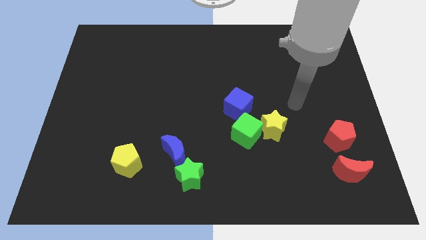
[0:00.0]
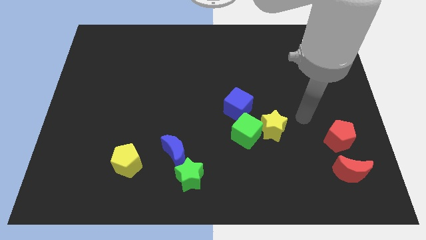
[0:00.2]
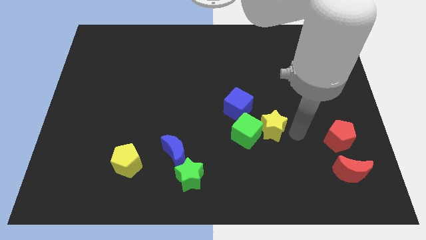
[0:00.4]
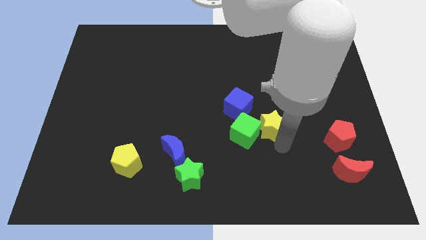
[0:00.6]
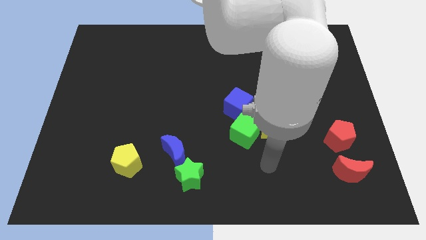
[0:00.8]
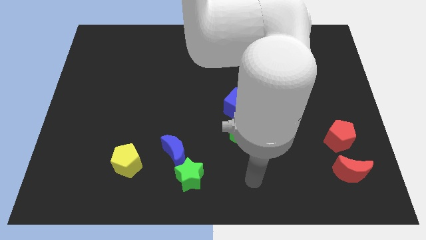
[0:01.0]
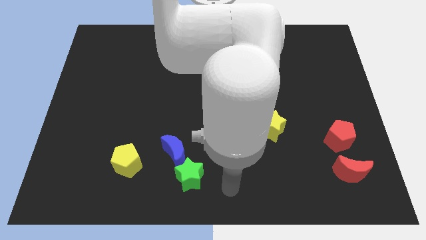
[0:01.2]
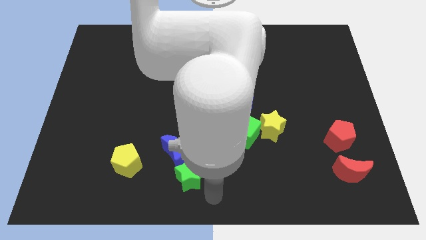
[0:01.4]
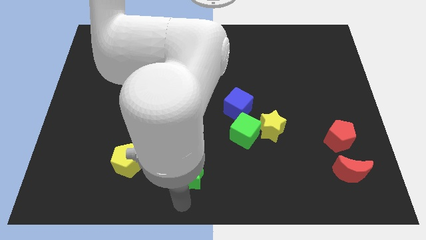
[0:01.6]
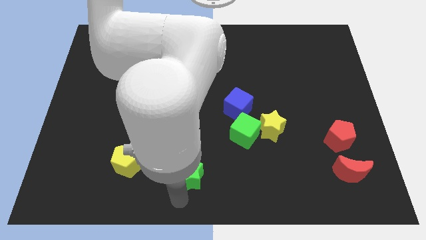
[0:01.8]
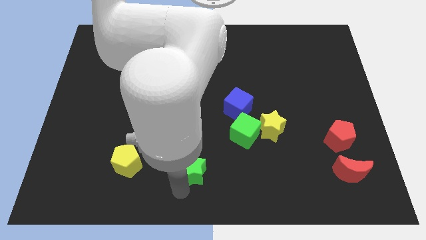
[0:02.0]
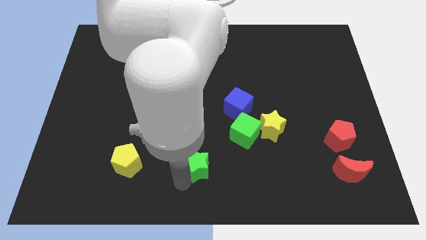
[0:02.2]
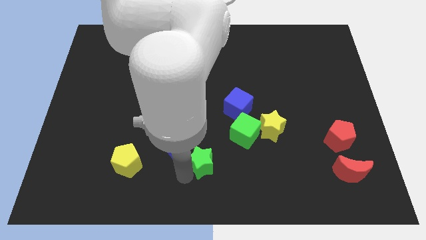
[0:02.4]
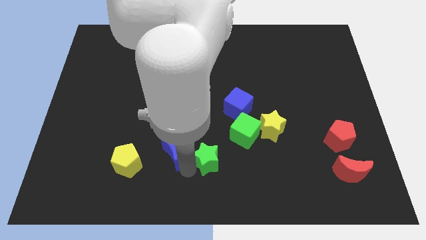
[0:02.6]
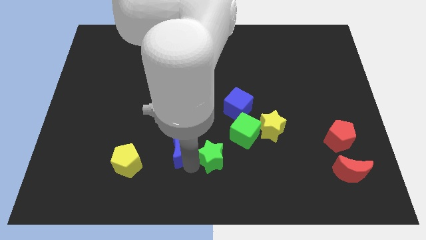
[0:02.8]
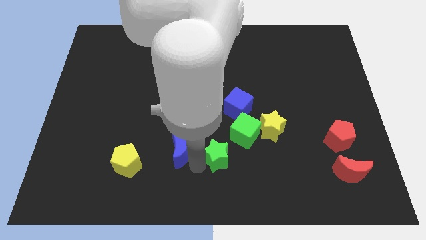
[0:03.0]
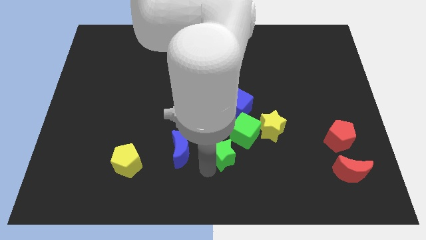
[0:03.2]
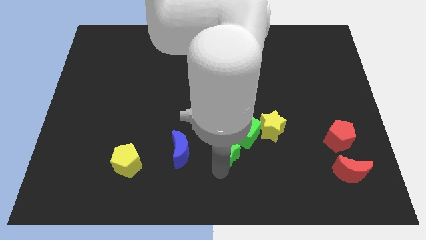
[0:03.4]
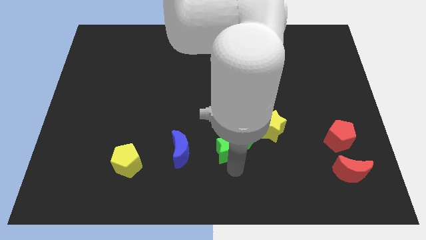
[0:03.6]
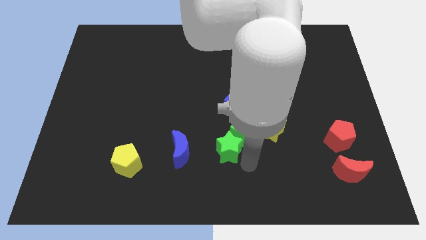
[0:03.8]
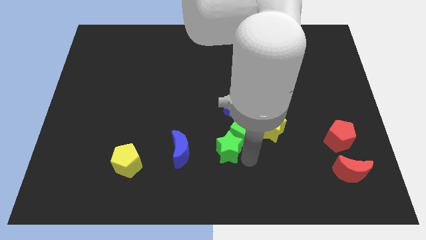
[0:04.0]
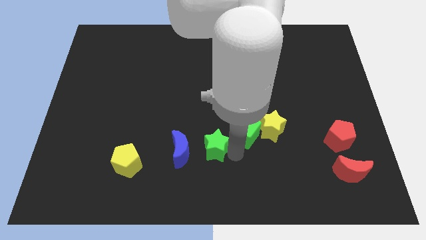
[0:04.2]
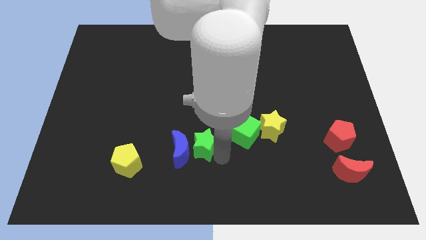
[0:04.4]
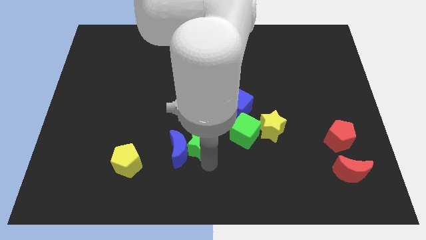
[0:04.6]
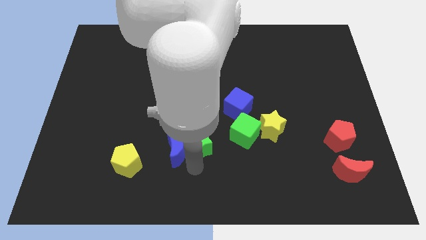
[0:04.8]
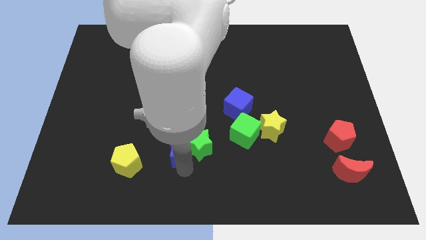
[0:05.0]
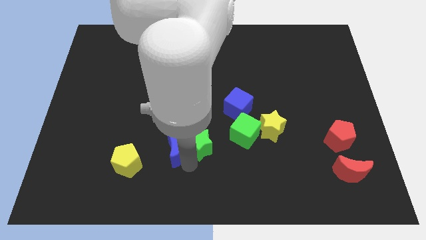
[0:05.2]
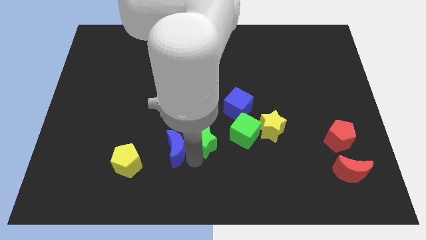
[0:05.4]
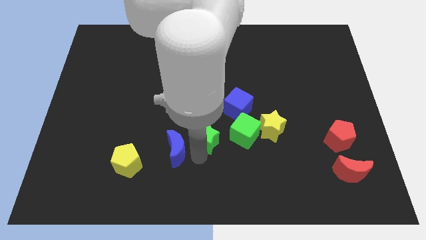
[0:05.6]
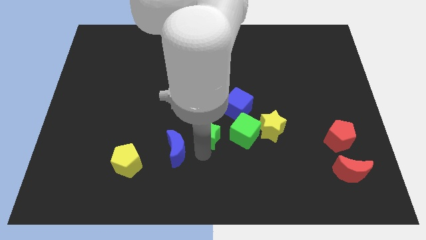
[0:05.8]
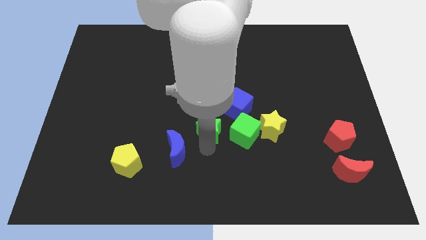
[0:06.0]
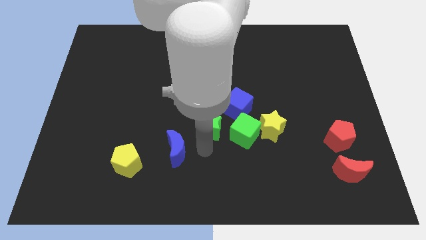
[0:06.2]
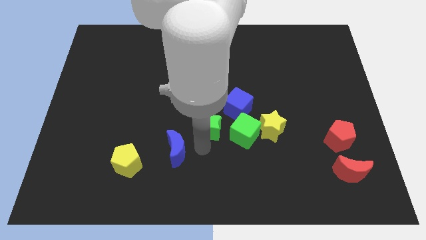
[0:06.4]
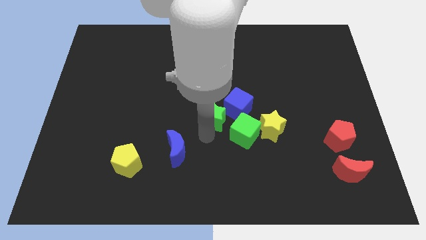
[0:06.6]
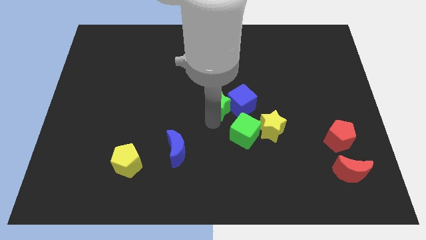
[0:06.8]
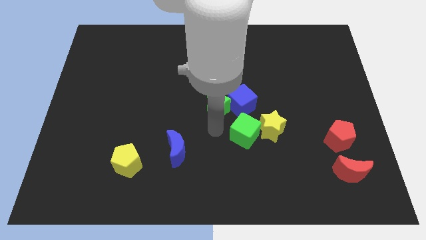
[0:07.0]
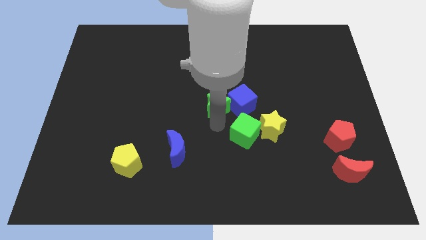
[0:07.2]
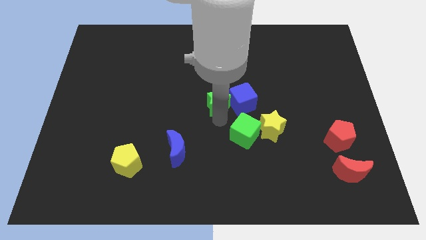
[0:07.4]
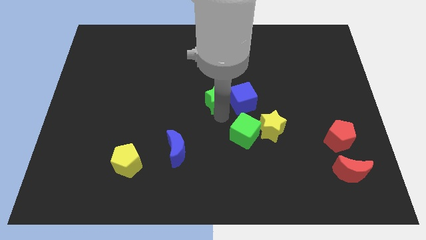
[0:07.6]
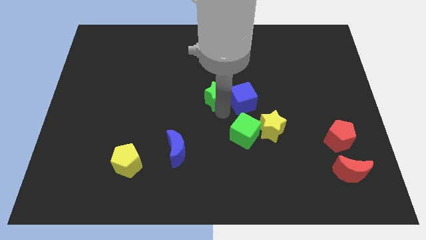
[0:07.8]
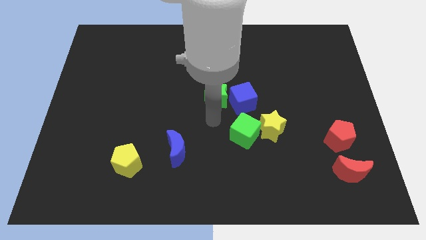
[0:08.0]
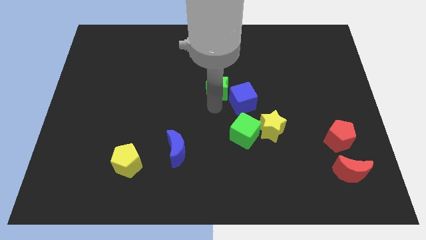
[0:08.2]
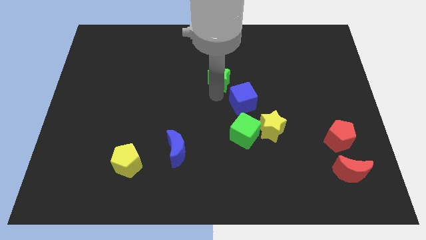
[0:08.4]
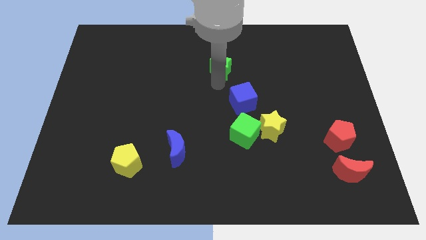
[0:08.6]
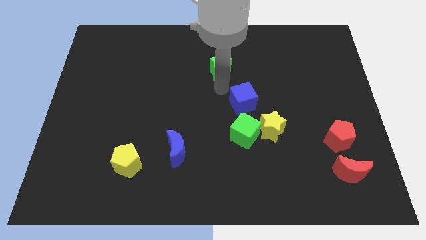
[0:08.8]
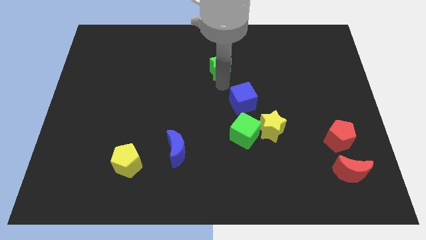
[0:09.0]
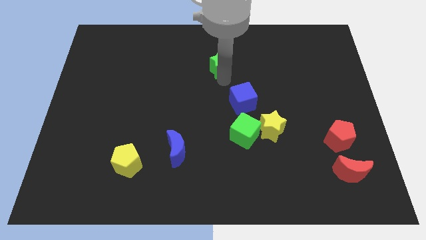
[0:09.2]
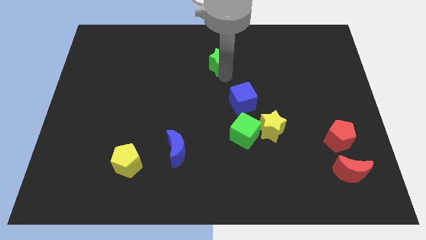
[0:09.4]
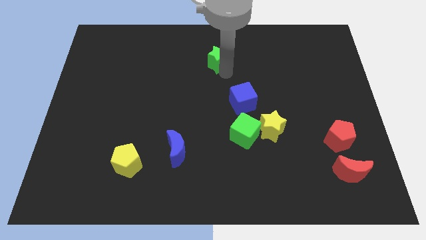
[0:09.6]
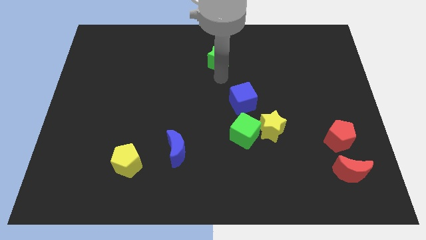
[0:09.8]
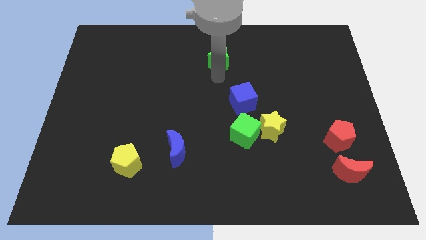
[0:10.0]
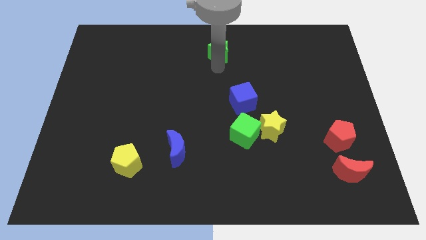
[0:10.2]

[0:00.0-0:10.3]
push the green star to the towards your base

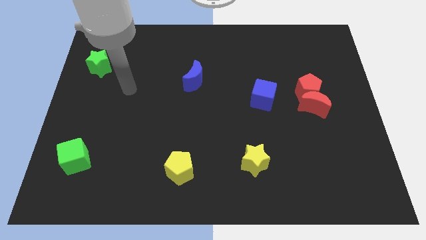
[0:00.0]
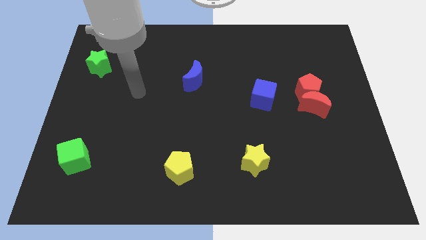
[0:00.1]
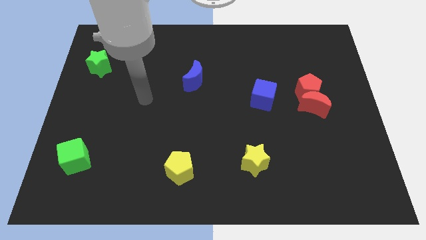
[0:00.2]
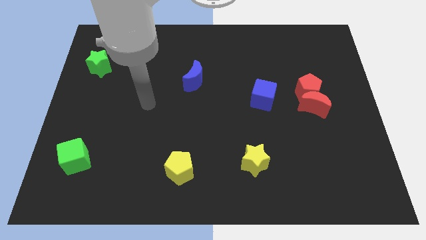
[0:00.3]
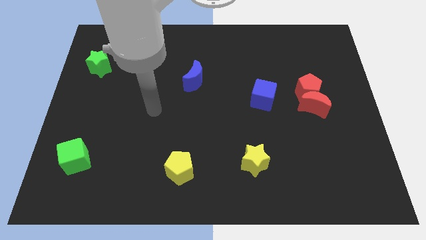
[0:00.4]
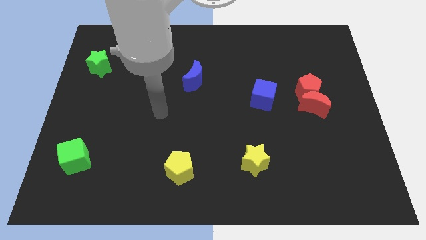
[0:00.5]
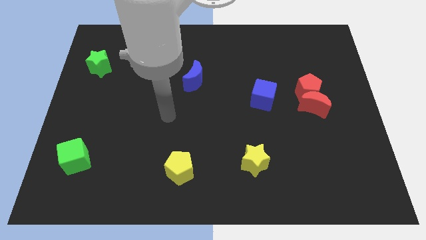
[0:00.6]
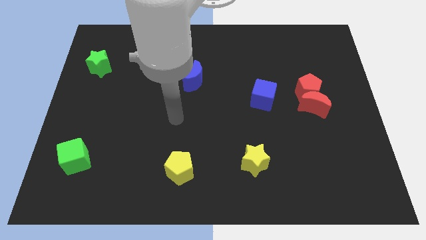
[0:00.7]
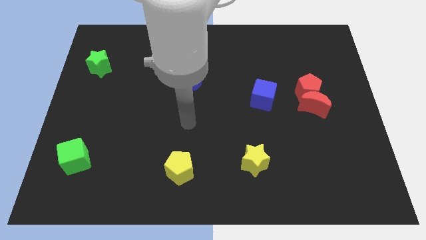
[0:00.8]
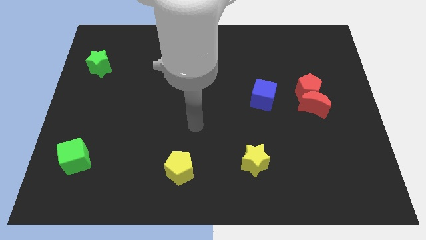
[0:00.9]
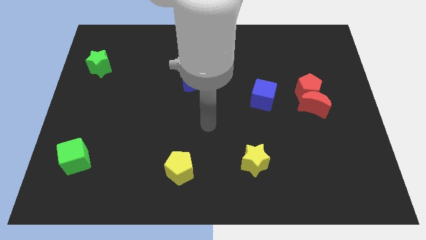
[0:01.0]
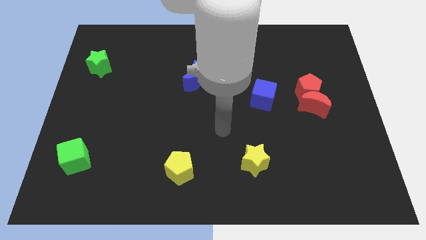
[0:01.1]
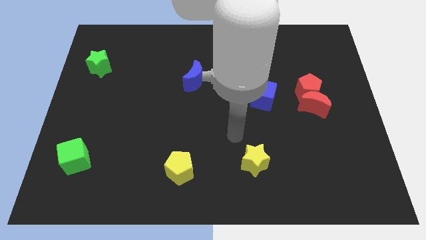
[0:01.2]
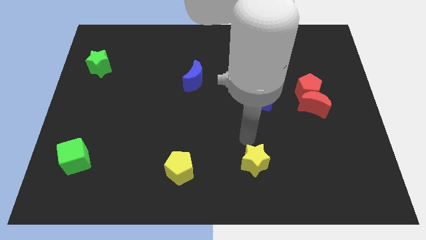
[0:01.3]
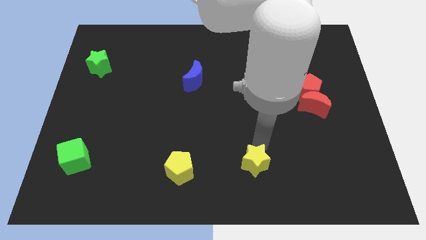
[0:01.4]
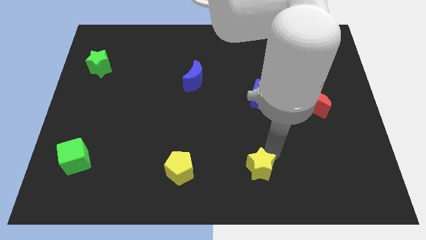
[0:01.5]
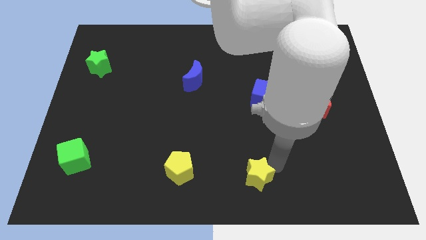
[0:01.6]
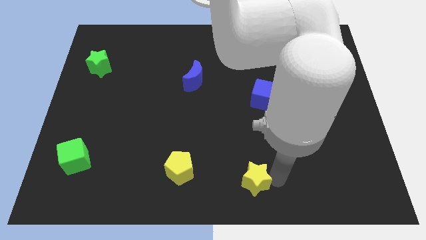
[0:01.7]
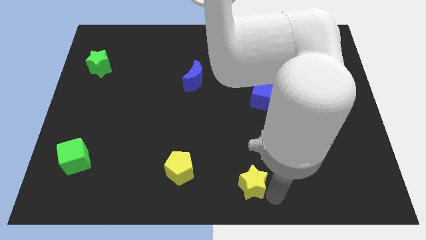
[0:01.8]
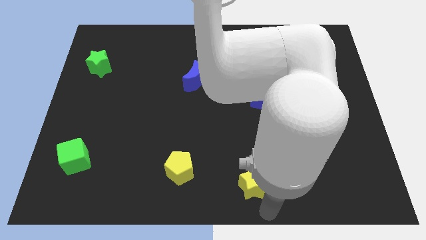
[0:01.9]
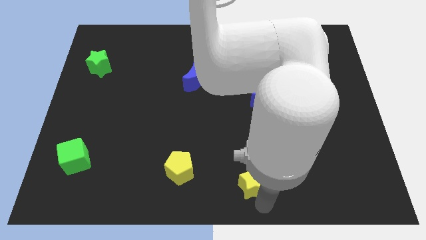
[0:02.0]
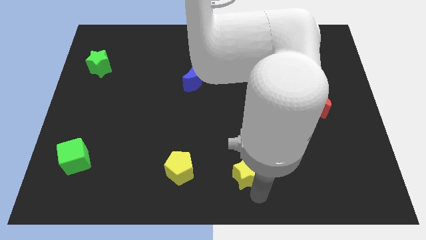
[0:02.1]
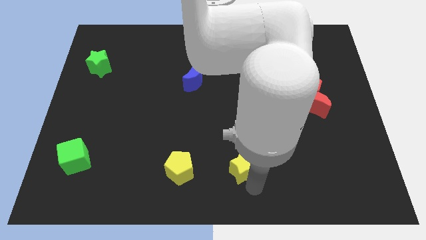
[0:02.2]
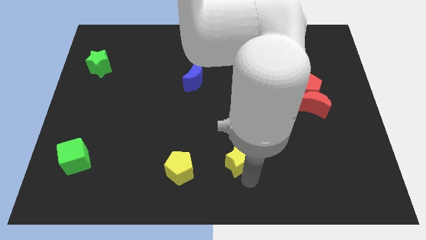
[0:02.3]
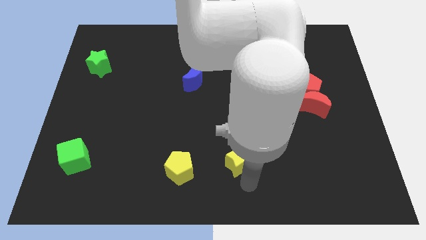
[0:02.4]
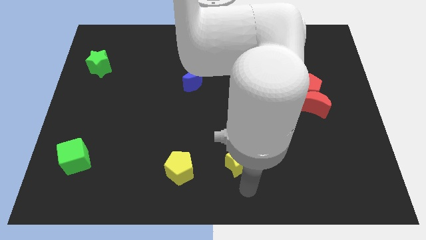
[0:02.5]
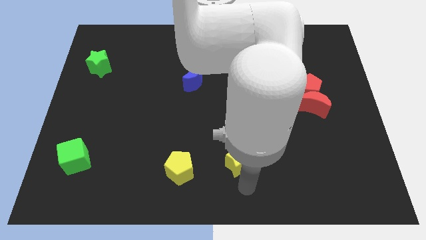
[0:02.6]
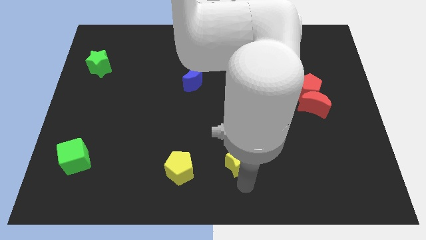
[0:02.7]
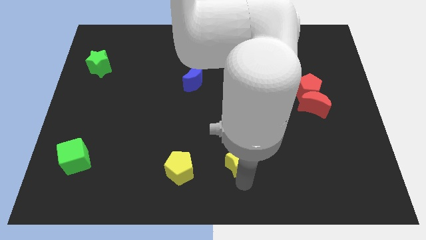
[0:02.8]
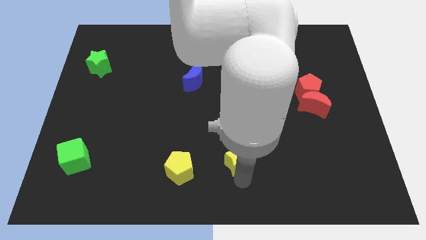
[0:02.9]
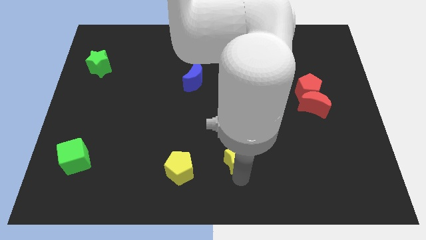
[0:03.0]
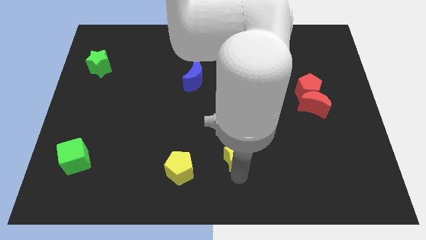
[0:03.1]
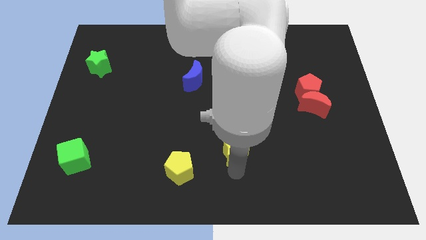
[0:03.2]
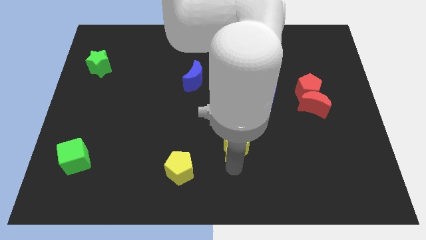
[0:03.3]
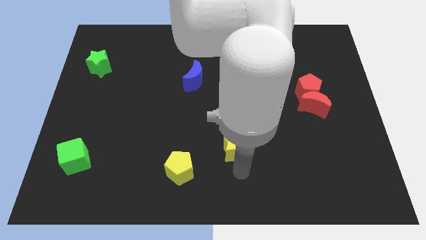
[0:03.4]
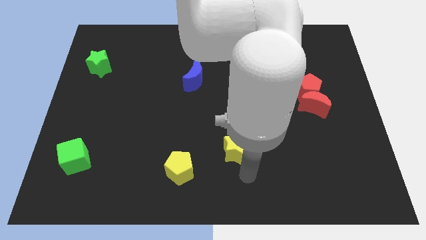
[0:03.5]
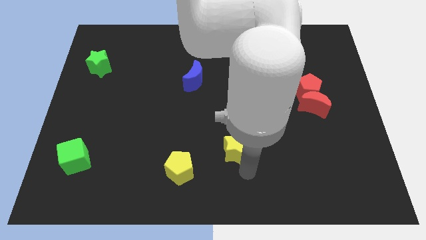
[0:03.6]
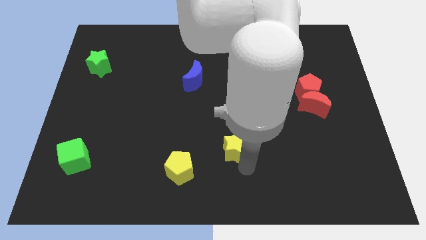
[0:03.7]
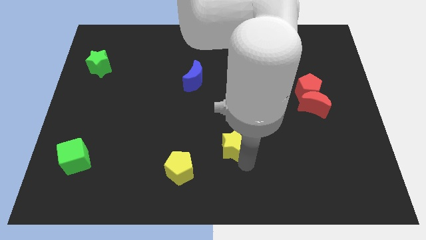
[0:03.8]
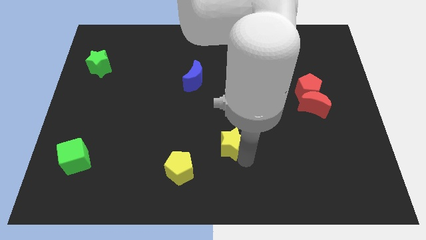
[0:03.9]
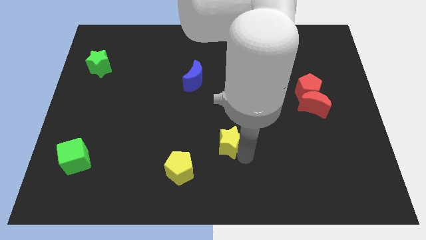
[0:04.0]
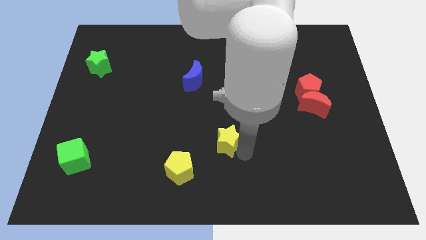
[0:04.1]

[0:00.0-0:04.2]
put the yellow star to the center
